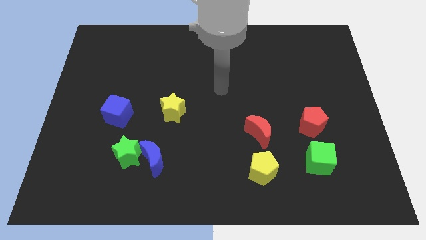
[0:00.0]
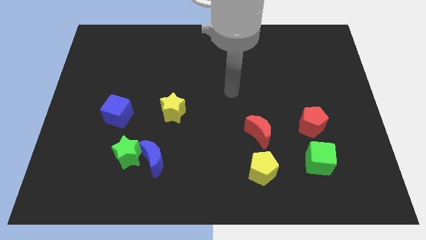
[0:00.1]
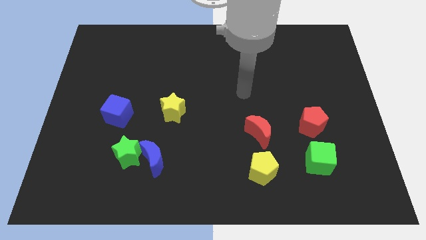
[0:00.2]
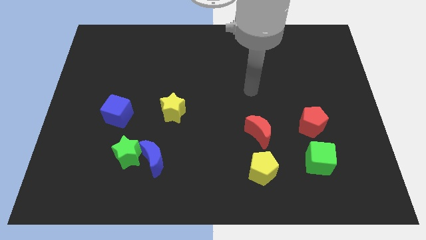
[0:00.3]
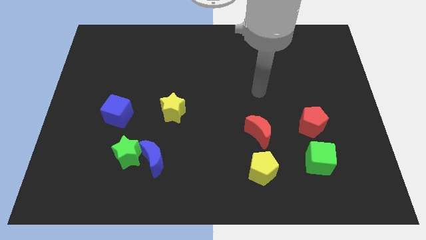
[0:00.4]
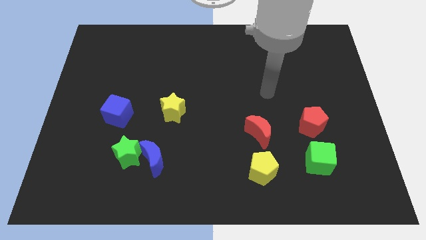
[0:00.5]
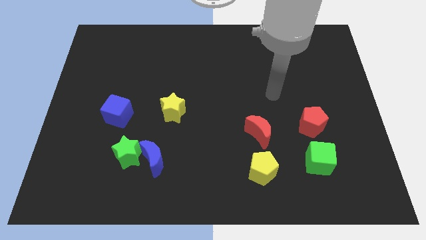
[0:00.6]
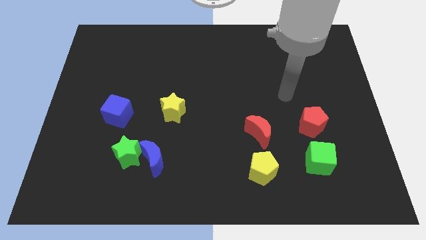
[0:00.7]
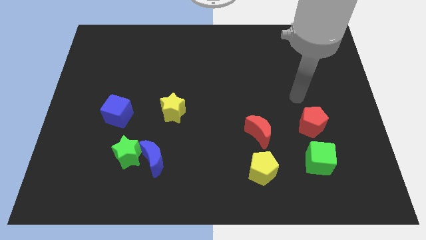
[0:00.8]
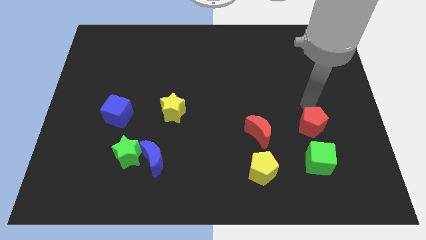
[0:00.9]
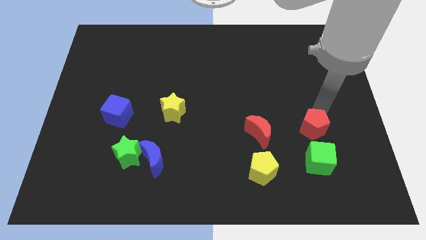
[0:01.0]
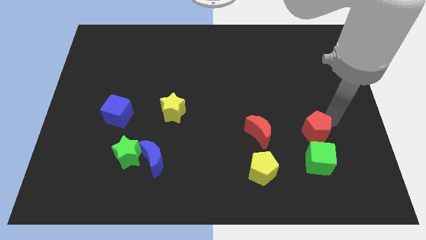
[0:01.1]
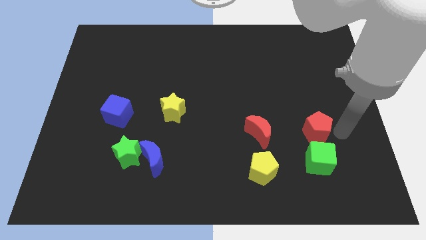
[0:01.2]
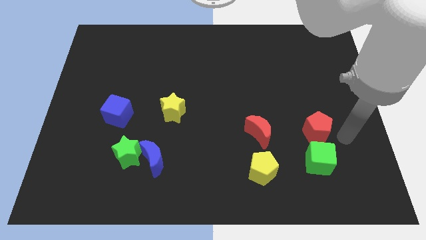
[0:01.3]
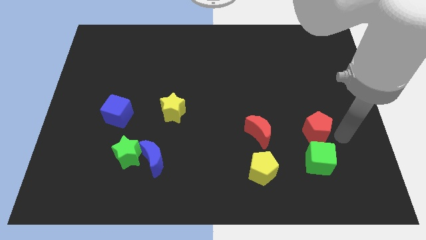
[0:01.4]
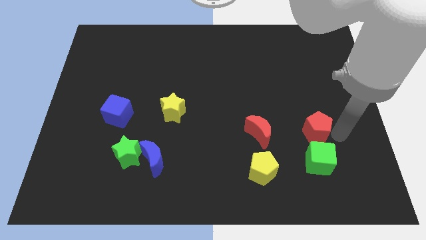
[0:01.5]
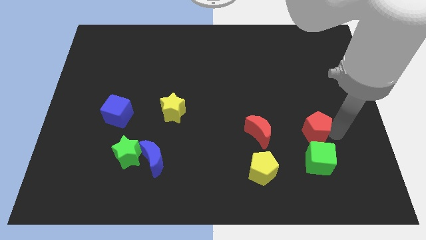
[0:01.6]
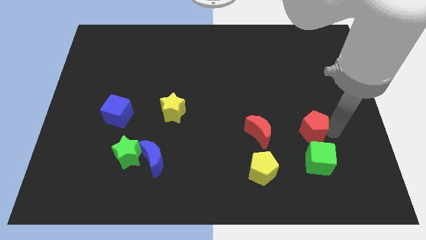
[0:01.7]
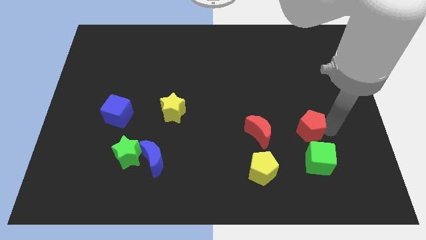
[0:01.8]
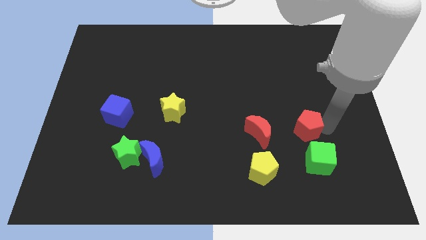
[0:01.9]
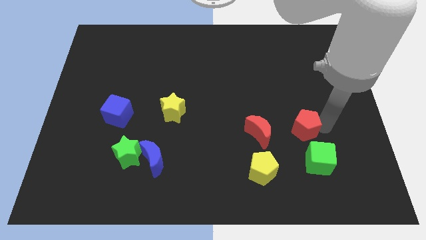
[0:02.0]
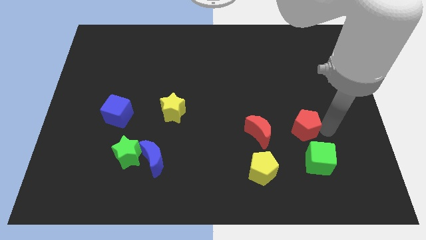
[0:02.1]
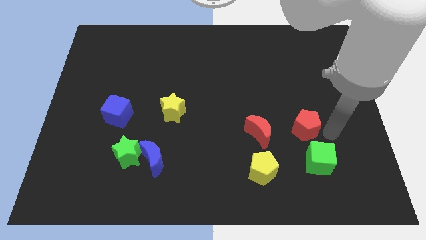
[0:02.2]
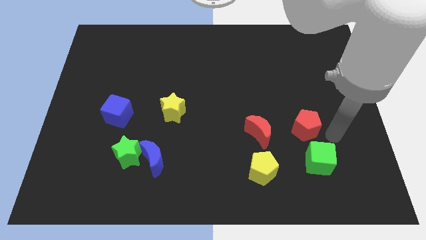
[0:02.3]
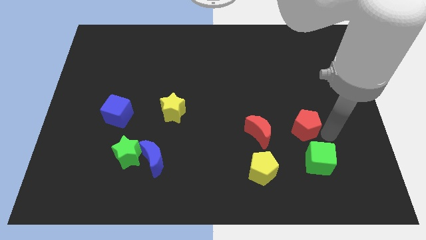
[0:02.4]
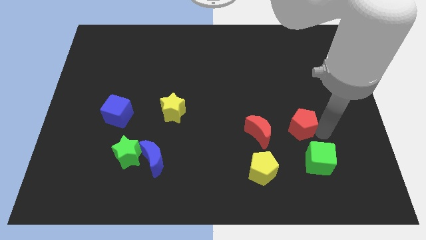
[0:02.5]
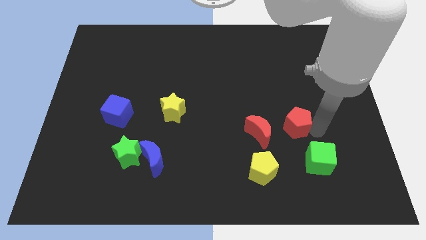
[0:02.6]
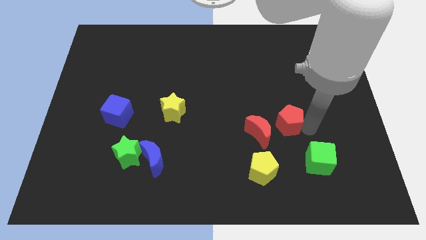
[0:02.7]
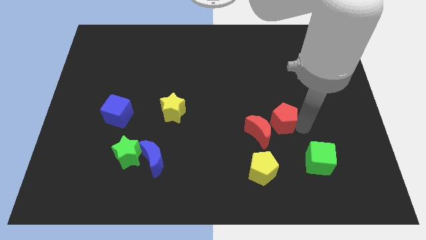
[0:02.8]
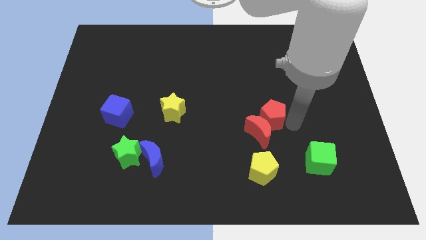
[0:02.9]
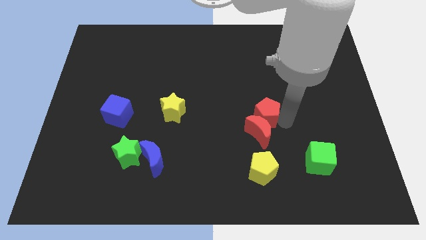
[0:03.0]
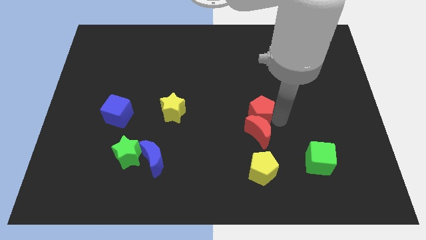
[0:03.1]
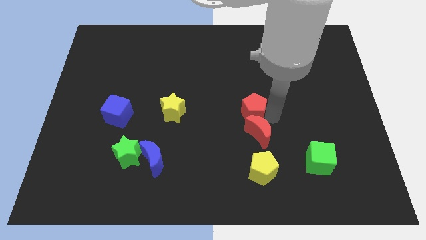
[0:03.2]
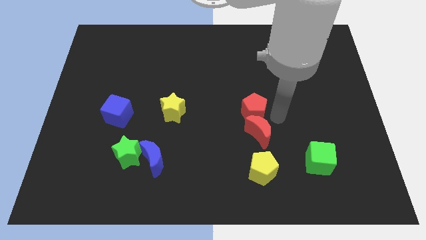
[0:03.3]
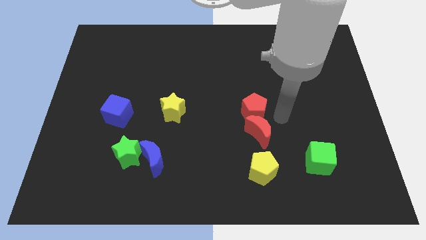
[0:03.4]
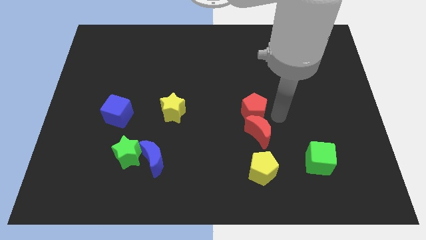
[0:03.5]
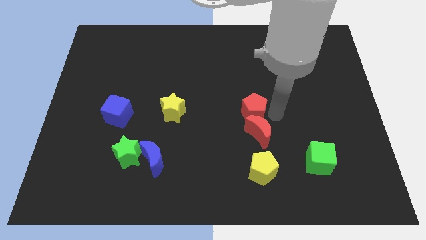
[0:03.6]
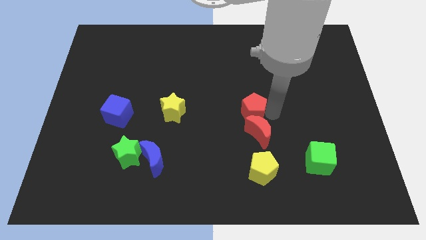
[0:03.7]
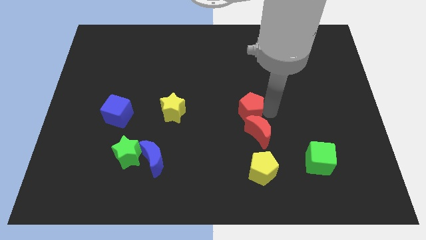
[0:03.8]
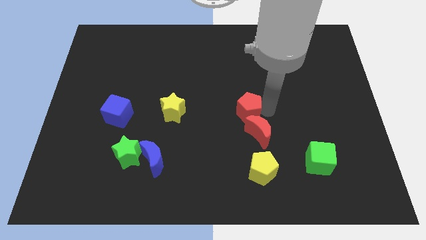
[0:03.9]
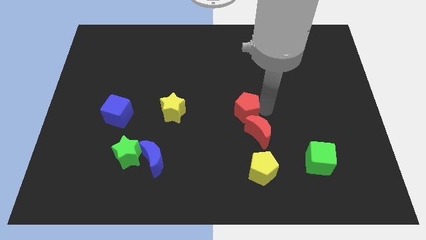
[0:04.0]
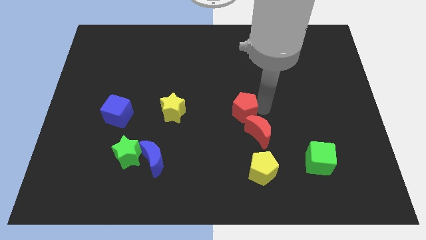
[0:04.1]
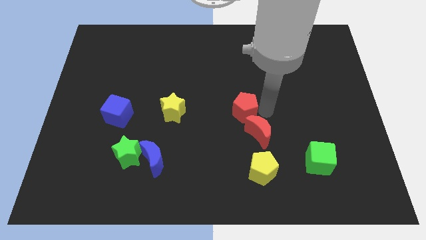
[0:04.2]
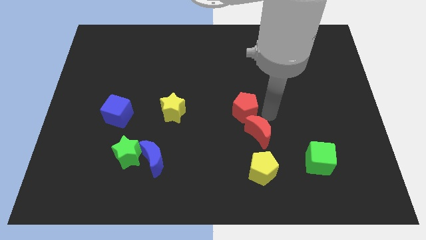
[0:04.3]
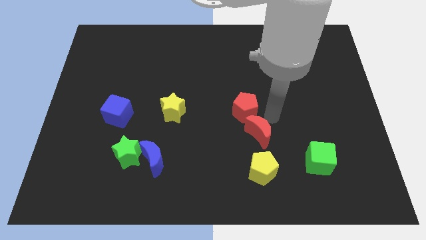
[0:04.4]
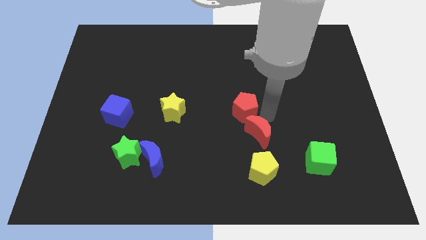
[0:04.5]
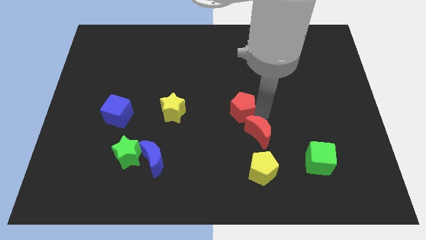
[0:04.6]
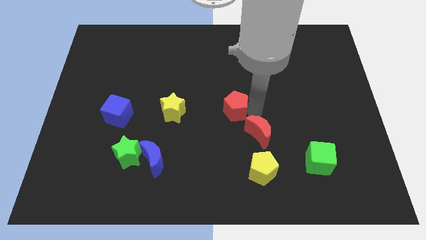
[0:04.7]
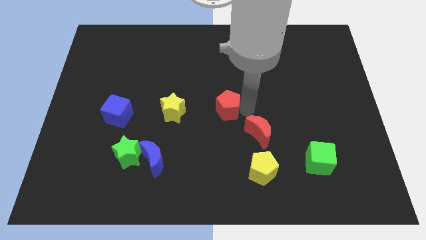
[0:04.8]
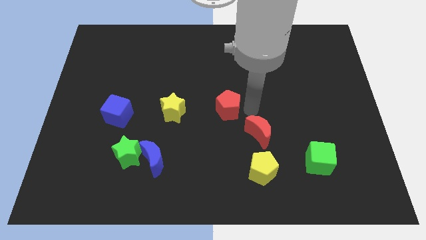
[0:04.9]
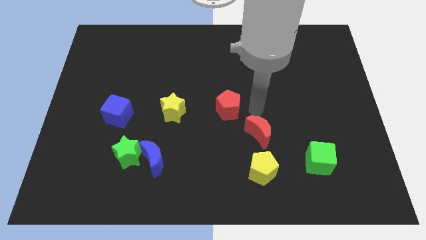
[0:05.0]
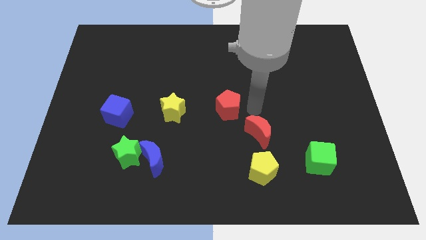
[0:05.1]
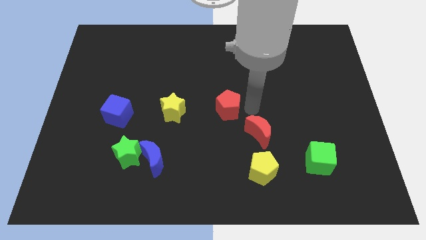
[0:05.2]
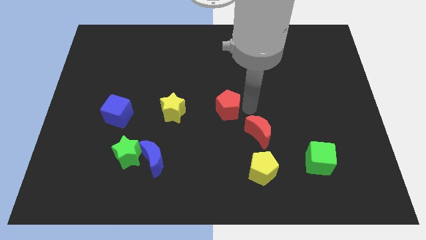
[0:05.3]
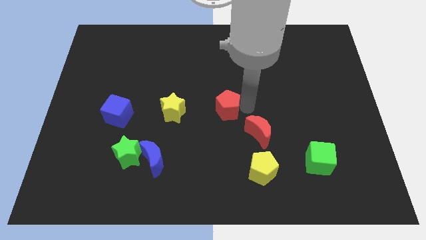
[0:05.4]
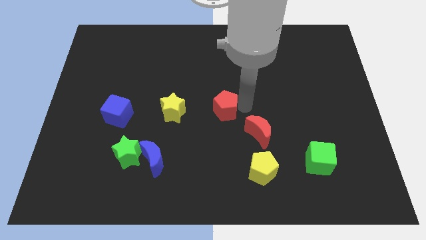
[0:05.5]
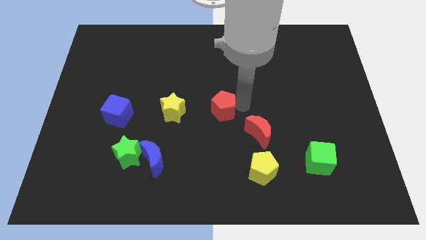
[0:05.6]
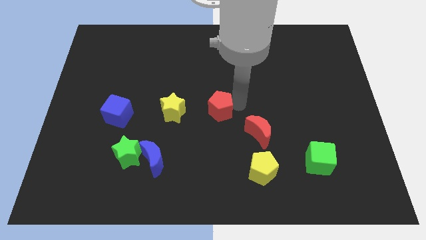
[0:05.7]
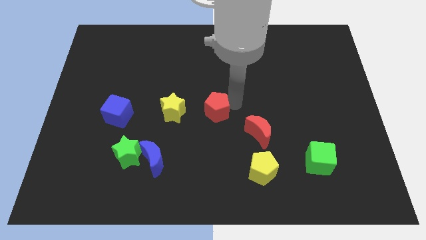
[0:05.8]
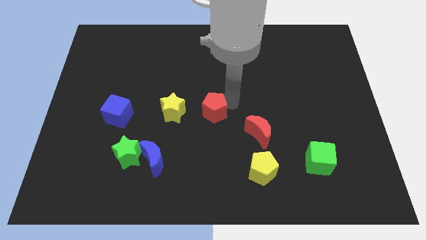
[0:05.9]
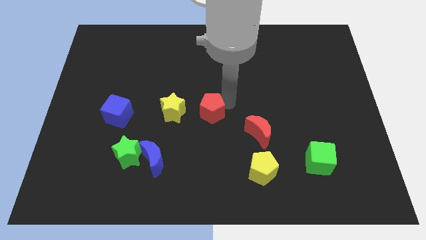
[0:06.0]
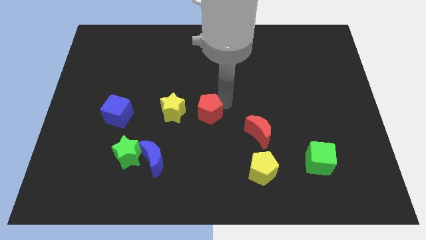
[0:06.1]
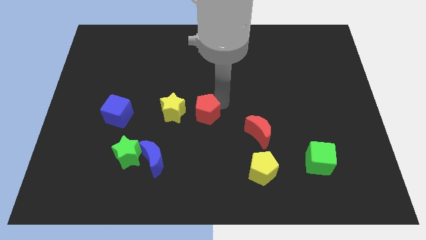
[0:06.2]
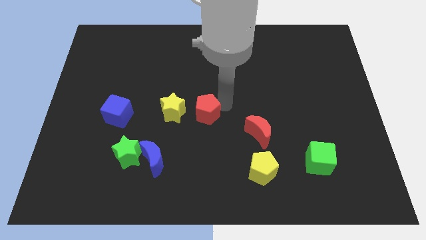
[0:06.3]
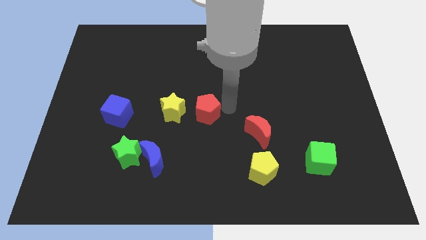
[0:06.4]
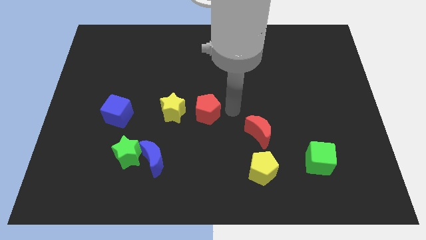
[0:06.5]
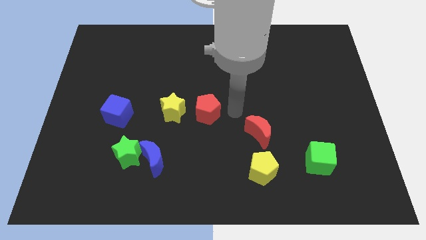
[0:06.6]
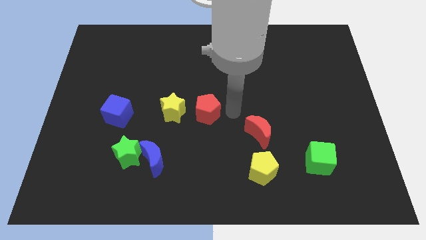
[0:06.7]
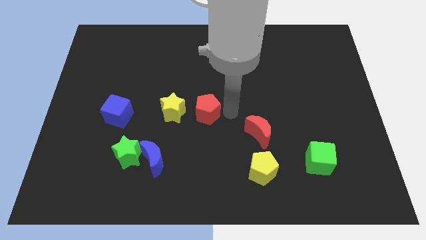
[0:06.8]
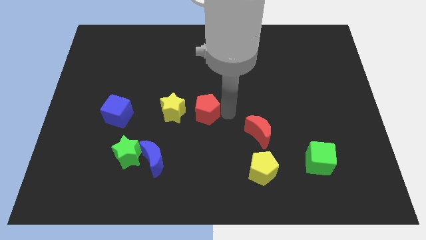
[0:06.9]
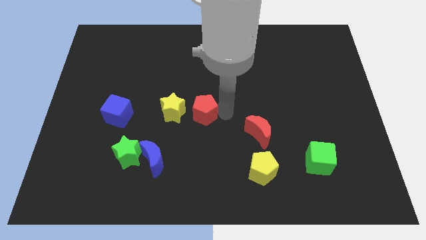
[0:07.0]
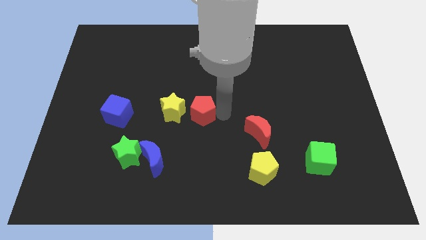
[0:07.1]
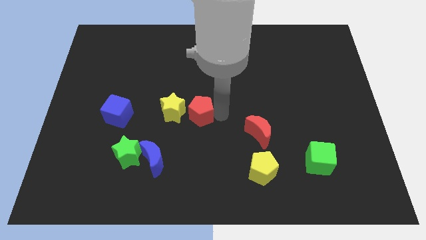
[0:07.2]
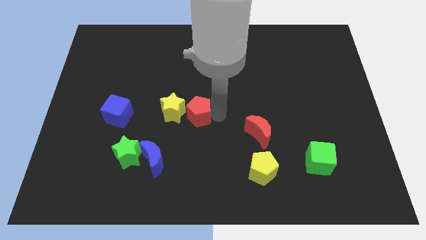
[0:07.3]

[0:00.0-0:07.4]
slide the red pentagon to the yellow star
